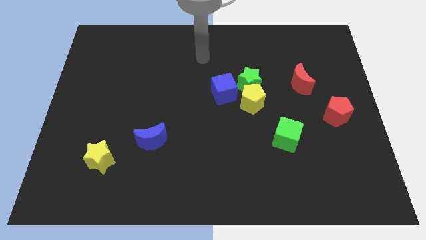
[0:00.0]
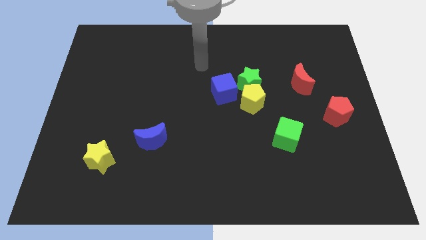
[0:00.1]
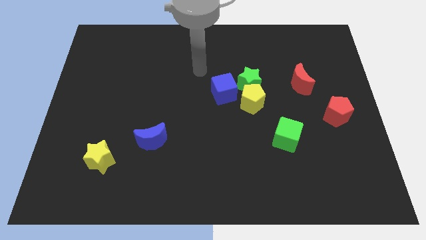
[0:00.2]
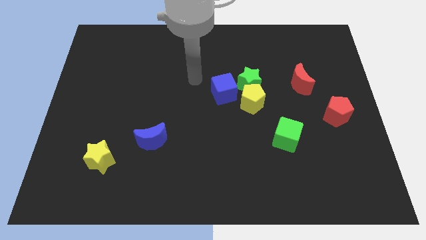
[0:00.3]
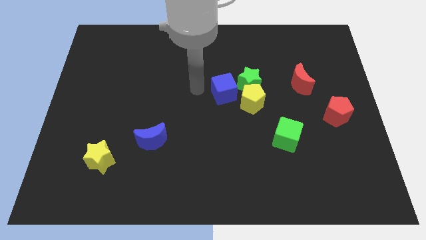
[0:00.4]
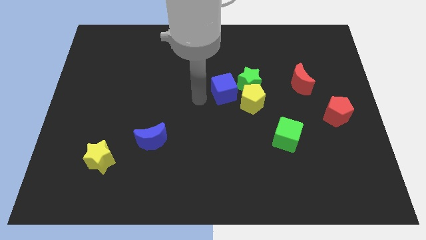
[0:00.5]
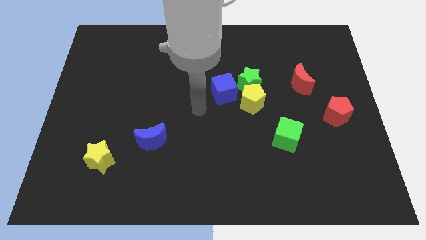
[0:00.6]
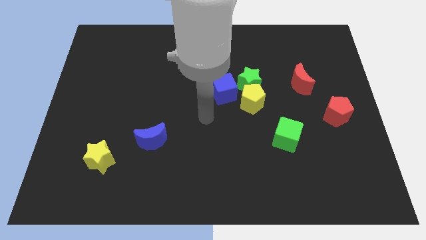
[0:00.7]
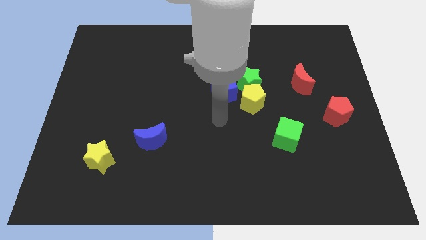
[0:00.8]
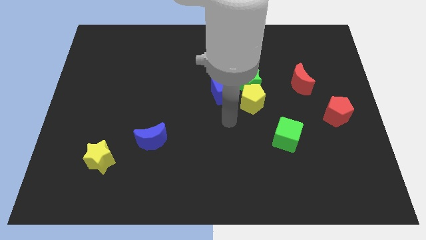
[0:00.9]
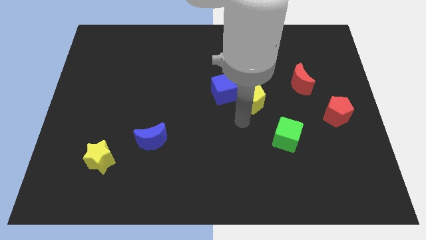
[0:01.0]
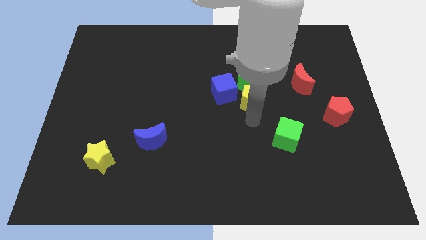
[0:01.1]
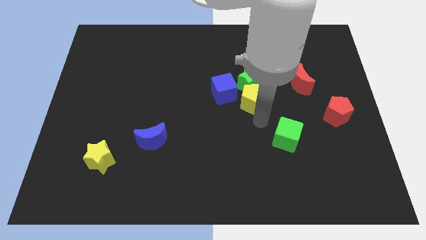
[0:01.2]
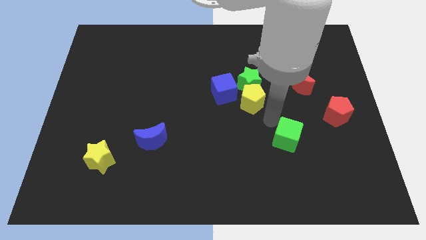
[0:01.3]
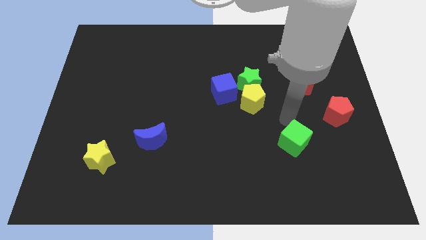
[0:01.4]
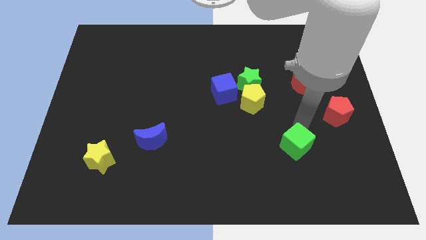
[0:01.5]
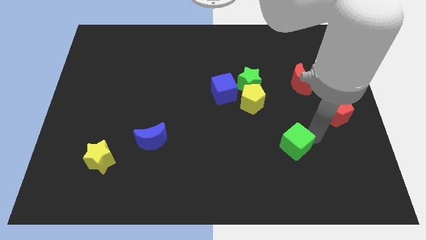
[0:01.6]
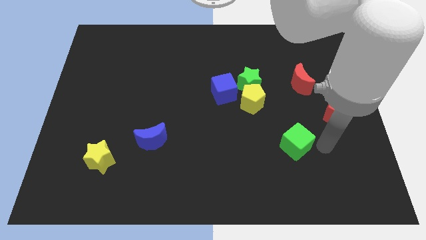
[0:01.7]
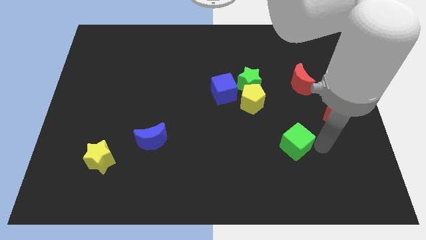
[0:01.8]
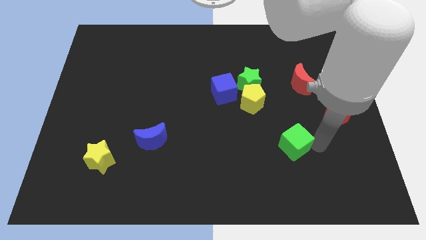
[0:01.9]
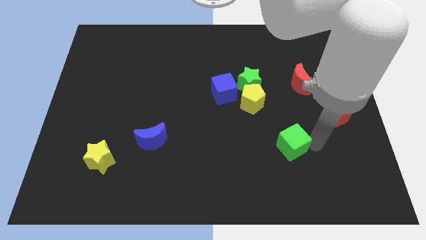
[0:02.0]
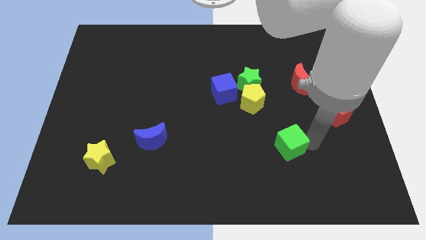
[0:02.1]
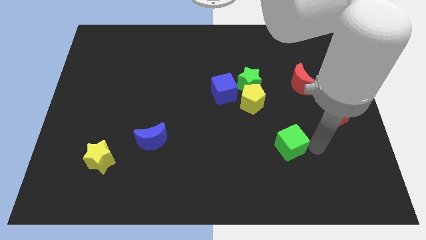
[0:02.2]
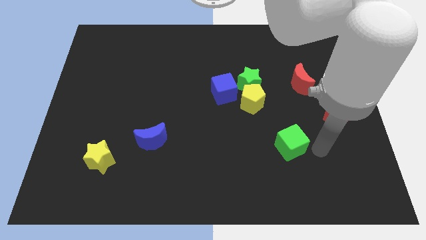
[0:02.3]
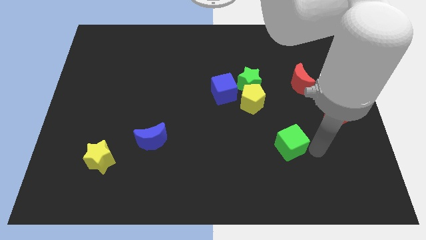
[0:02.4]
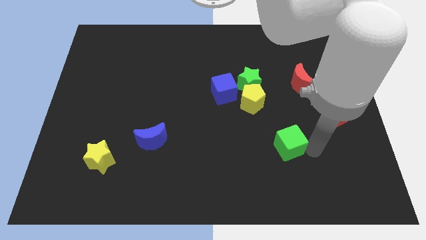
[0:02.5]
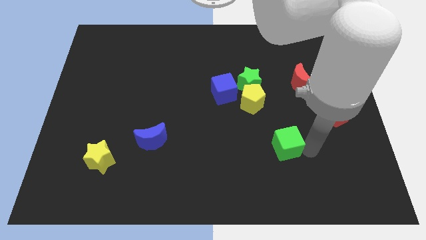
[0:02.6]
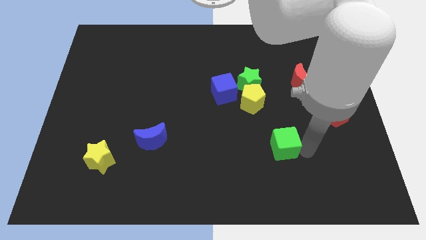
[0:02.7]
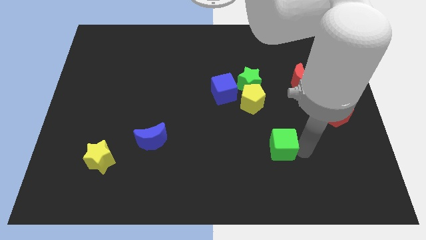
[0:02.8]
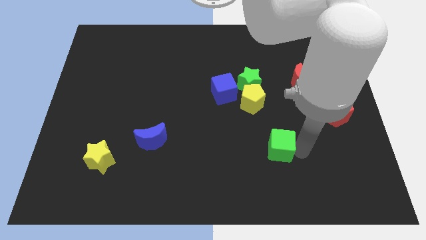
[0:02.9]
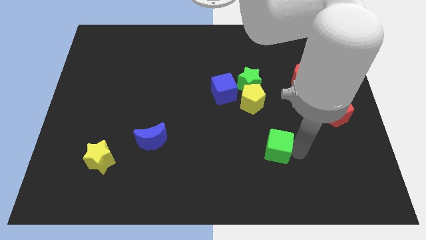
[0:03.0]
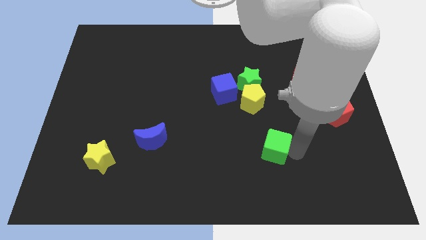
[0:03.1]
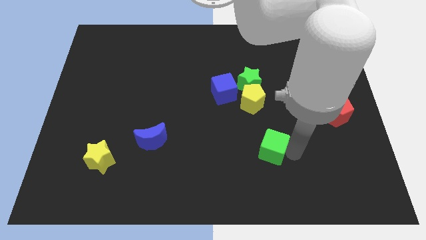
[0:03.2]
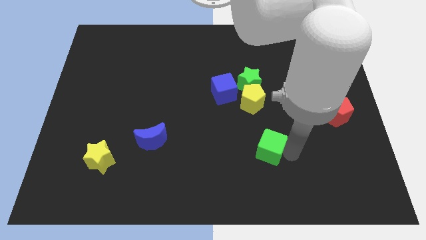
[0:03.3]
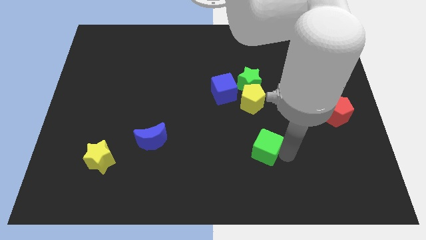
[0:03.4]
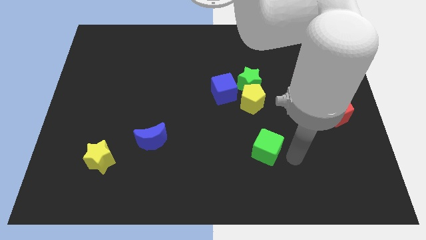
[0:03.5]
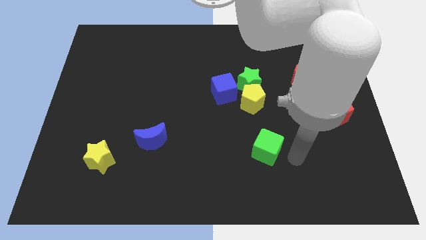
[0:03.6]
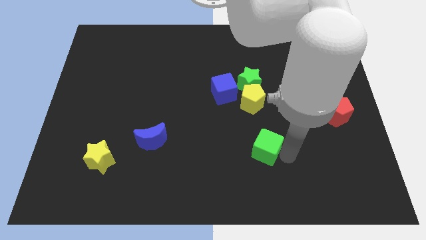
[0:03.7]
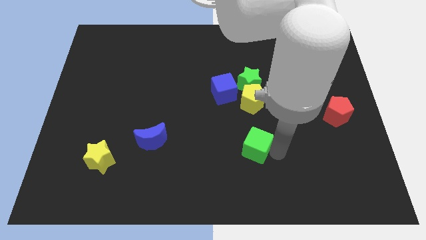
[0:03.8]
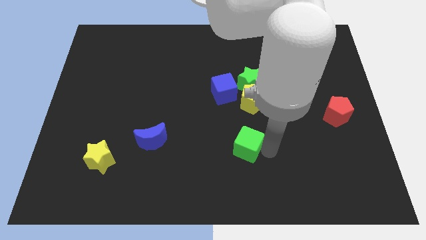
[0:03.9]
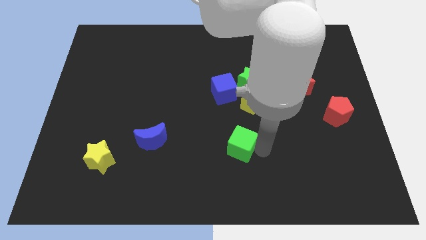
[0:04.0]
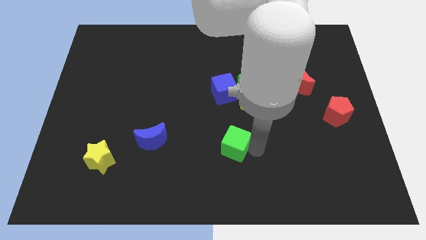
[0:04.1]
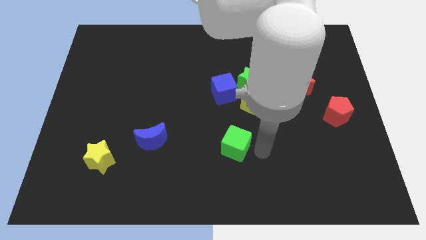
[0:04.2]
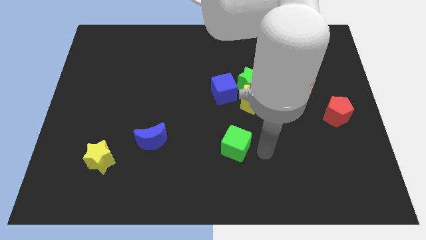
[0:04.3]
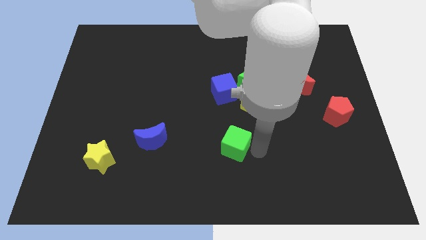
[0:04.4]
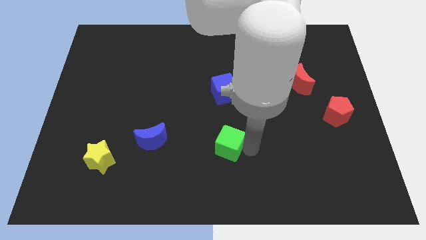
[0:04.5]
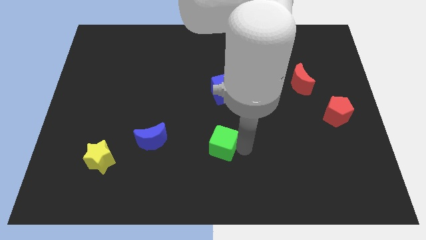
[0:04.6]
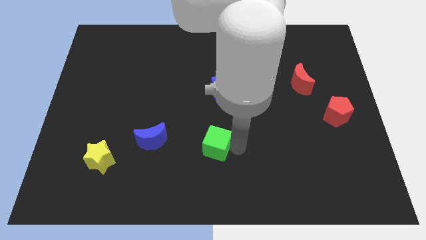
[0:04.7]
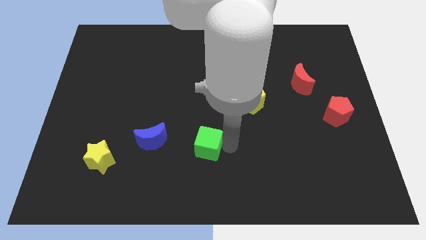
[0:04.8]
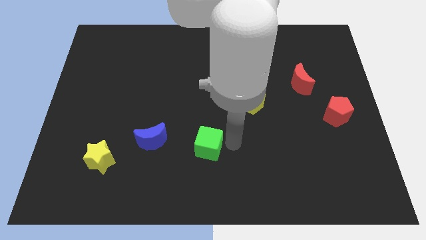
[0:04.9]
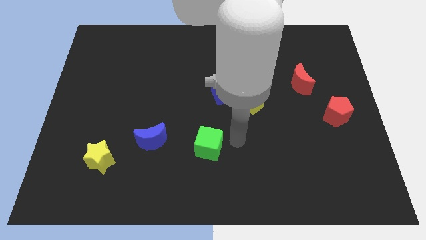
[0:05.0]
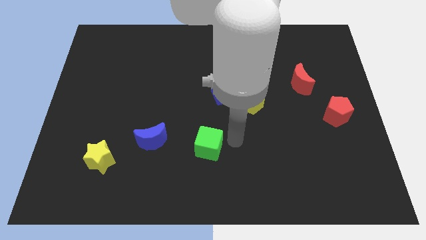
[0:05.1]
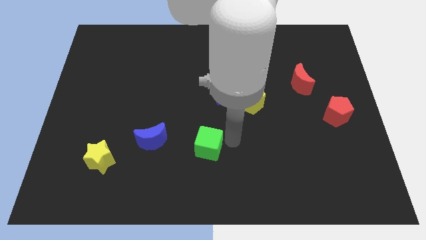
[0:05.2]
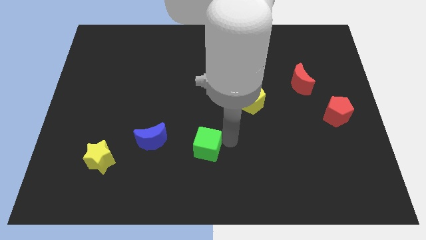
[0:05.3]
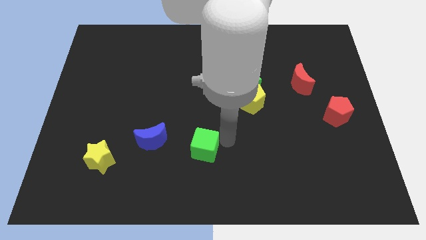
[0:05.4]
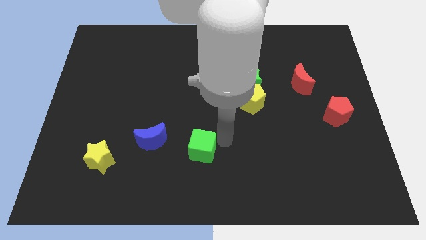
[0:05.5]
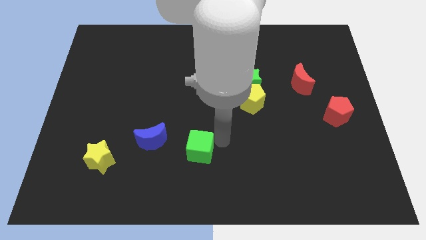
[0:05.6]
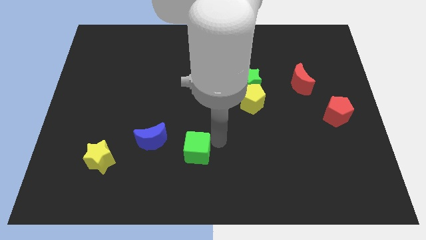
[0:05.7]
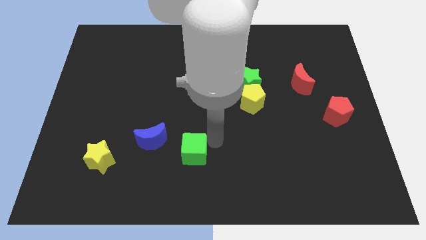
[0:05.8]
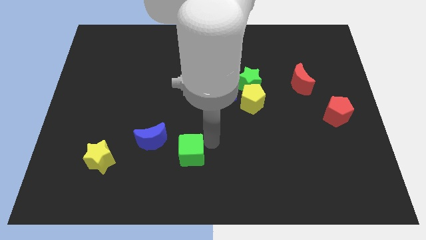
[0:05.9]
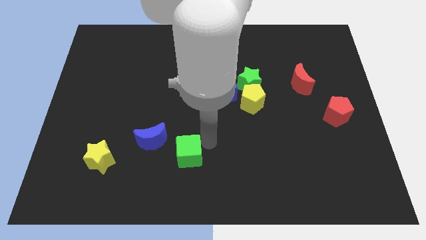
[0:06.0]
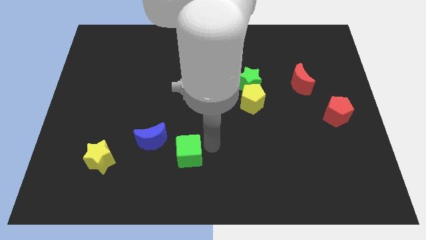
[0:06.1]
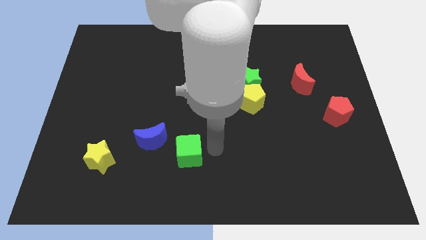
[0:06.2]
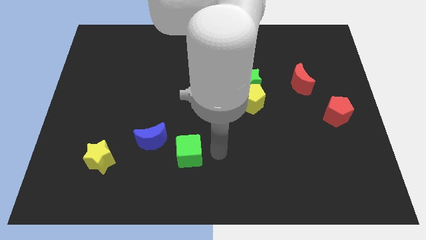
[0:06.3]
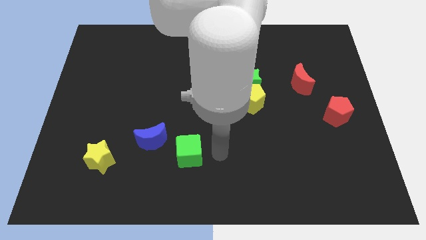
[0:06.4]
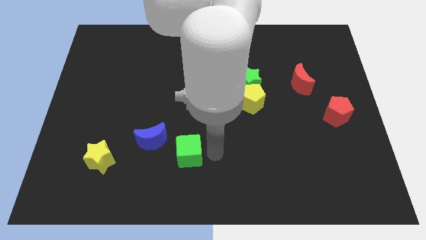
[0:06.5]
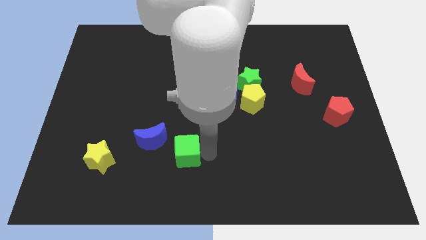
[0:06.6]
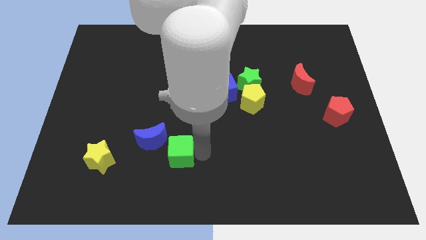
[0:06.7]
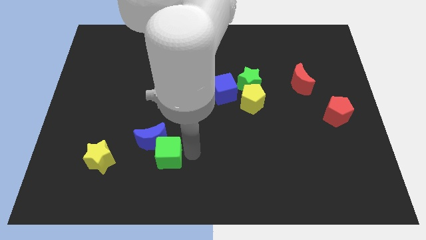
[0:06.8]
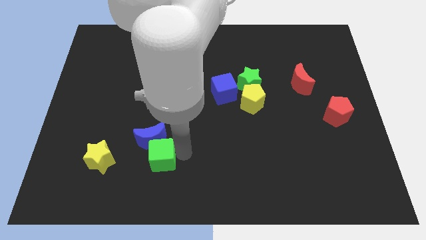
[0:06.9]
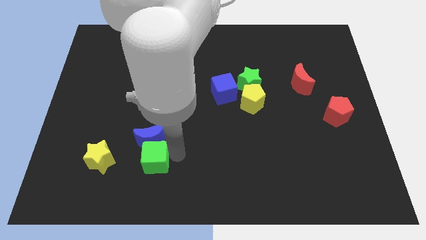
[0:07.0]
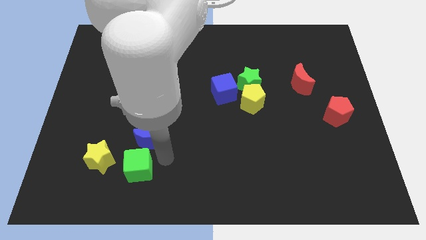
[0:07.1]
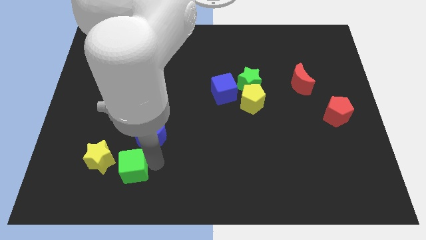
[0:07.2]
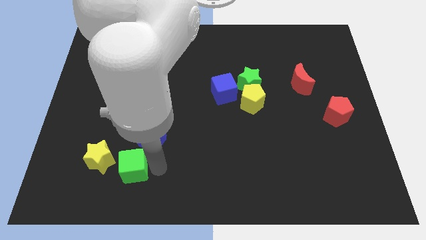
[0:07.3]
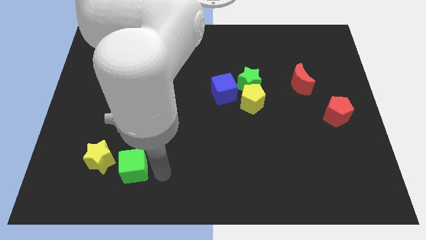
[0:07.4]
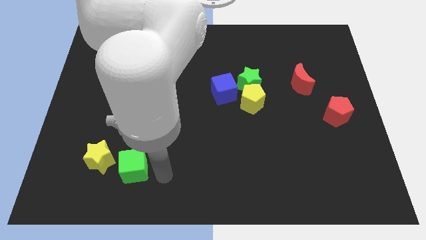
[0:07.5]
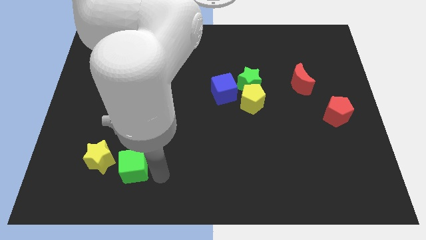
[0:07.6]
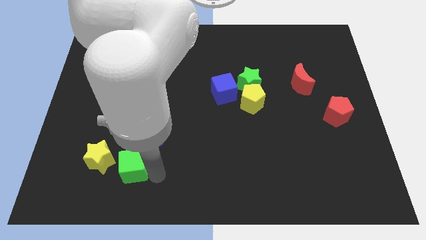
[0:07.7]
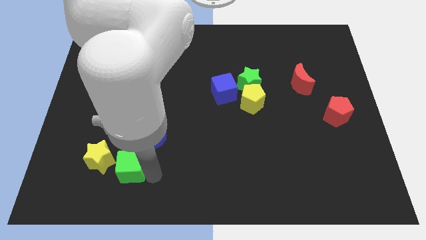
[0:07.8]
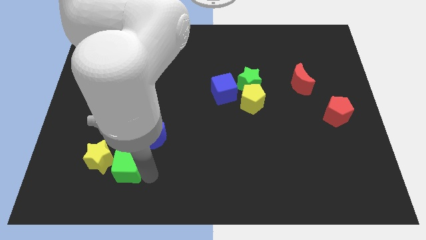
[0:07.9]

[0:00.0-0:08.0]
move the green cube towards the yellow star
